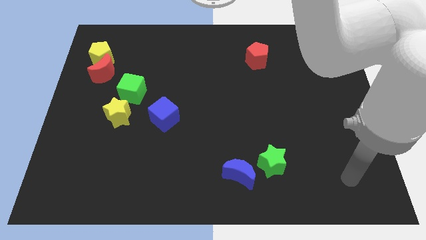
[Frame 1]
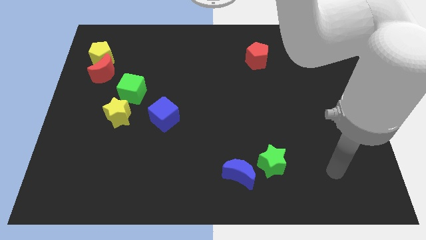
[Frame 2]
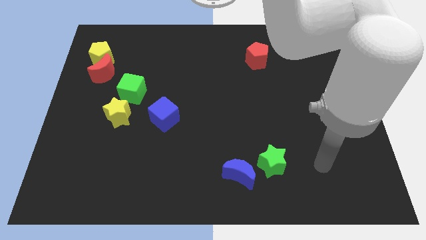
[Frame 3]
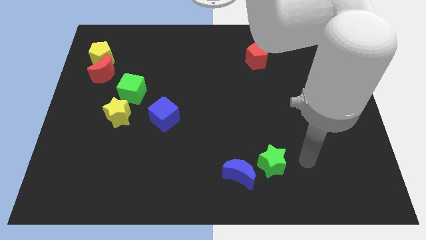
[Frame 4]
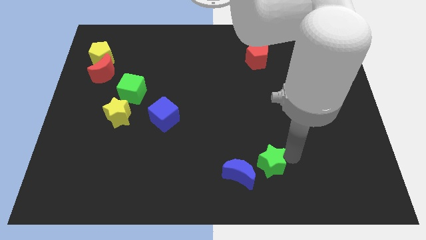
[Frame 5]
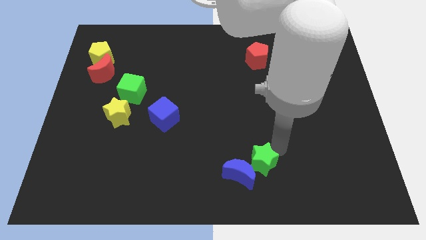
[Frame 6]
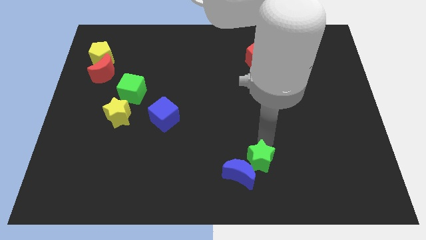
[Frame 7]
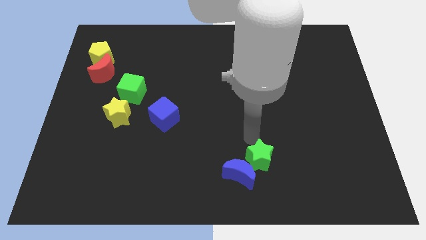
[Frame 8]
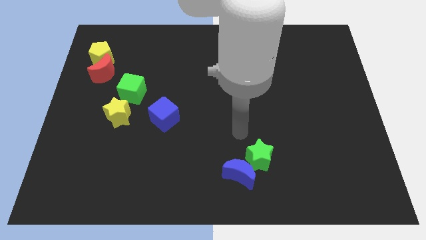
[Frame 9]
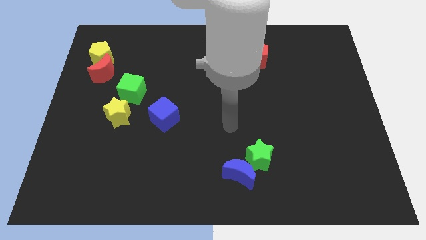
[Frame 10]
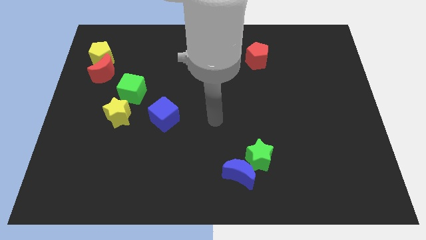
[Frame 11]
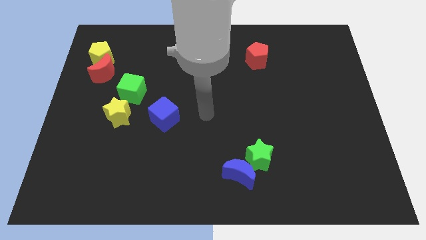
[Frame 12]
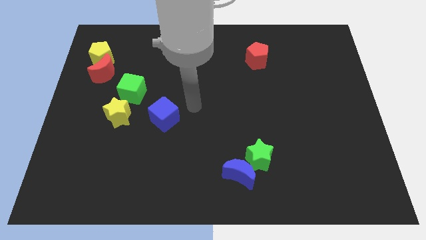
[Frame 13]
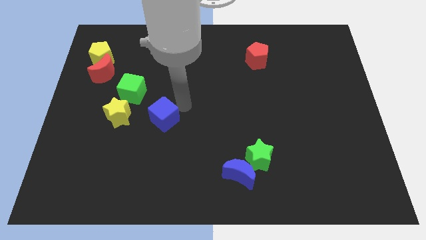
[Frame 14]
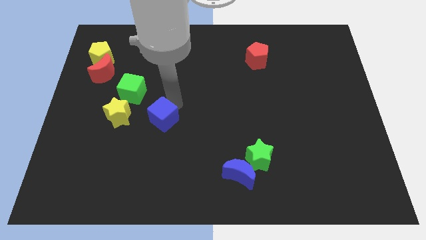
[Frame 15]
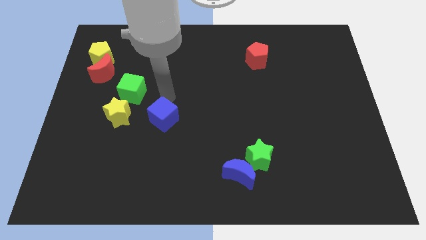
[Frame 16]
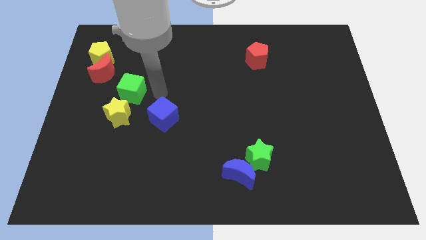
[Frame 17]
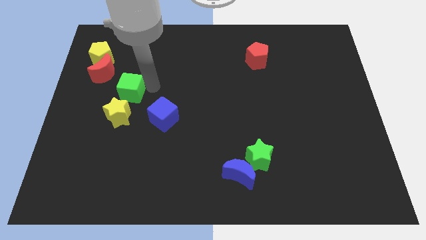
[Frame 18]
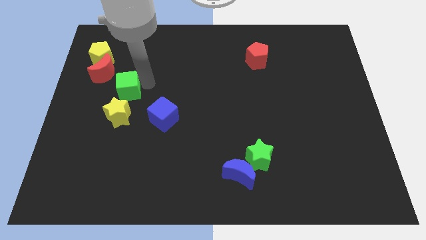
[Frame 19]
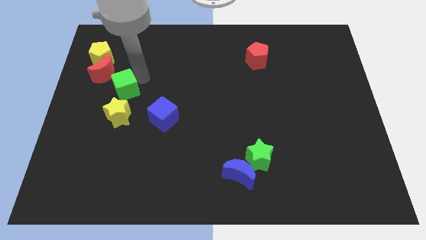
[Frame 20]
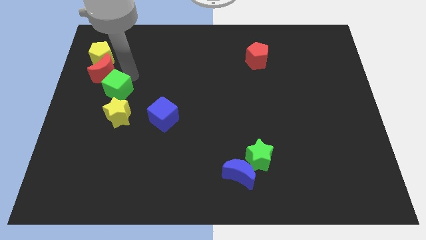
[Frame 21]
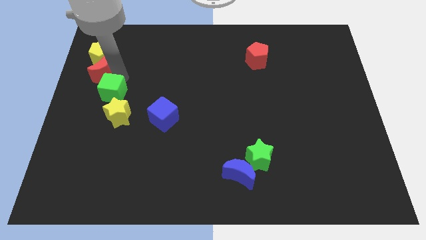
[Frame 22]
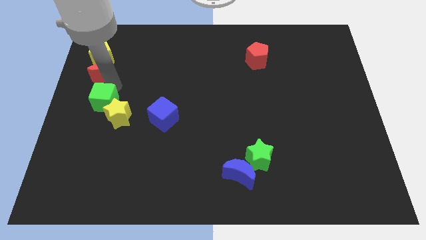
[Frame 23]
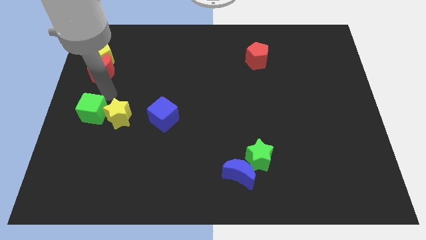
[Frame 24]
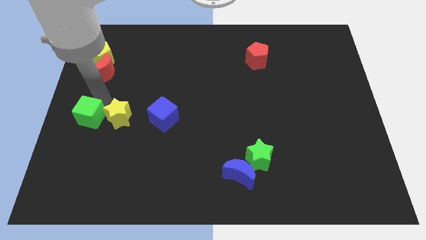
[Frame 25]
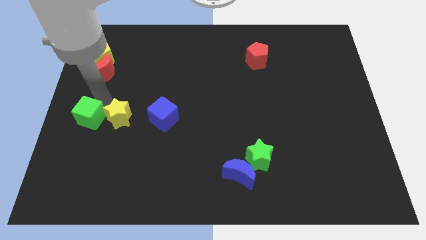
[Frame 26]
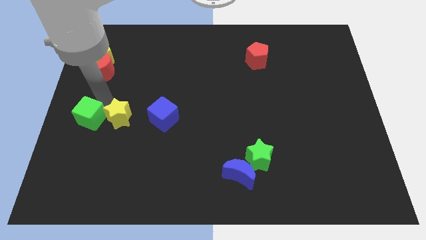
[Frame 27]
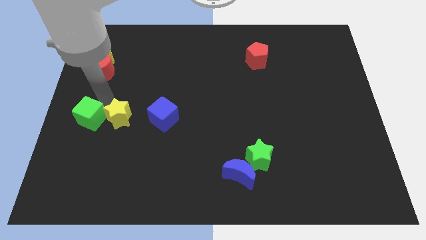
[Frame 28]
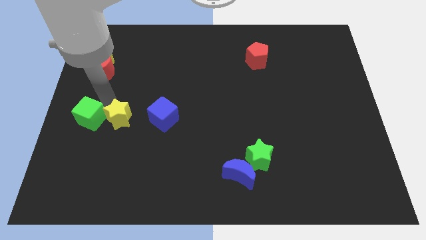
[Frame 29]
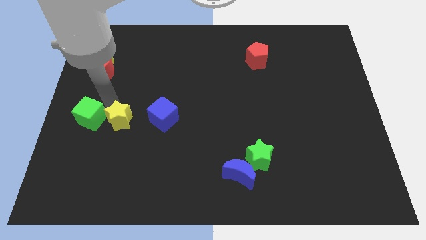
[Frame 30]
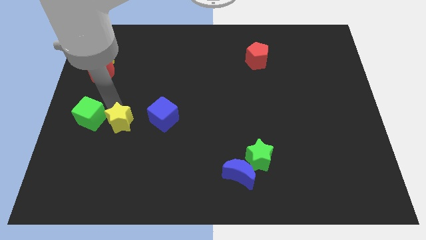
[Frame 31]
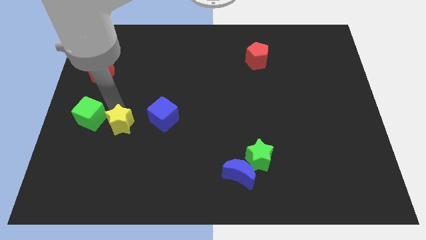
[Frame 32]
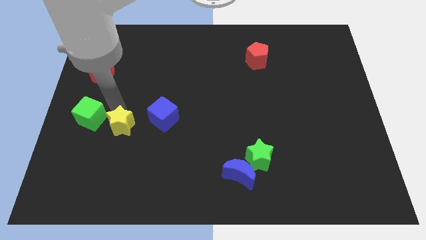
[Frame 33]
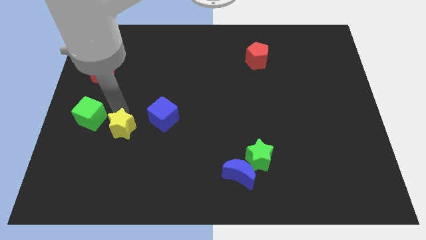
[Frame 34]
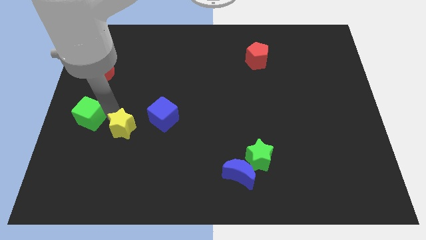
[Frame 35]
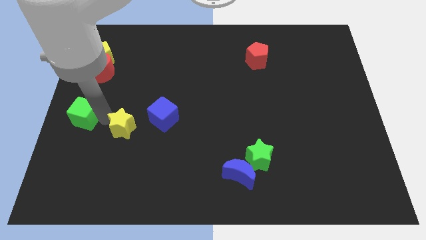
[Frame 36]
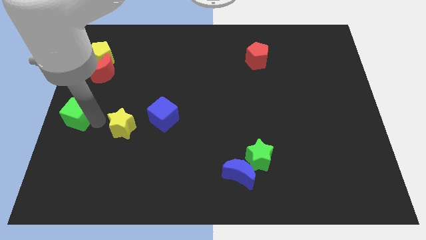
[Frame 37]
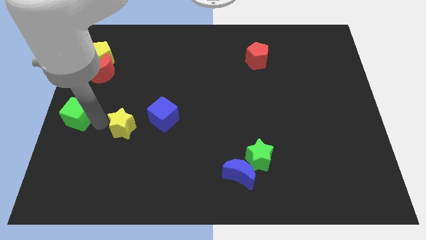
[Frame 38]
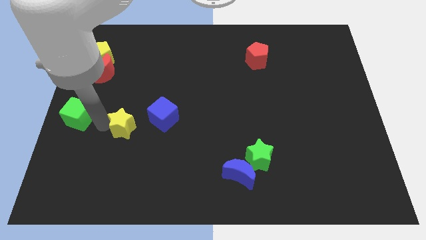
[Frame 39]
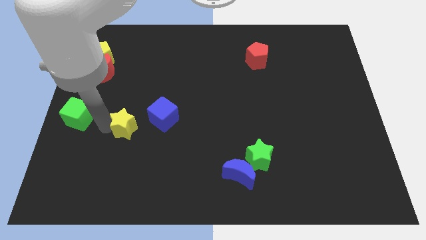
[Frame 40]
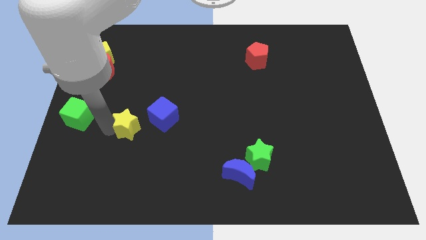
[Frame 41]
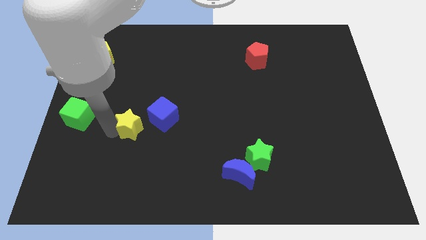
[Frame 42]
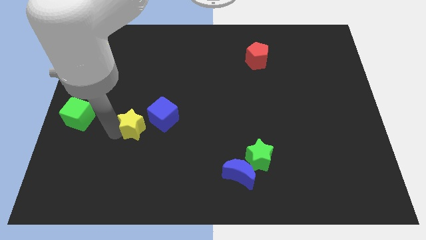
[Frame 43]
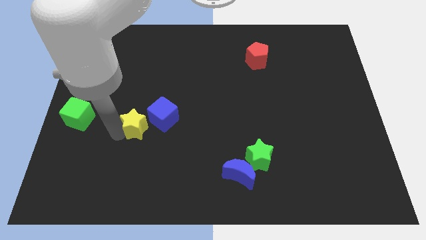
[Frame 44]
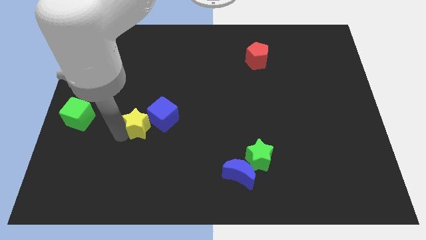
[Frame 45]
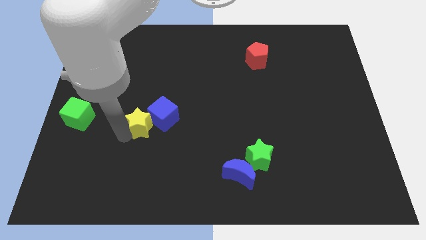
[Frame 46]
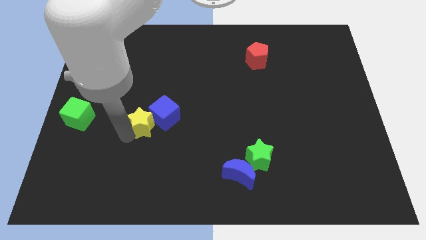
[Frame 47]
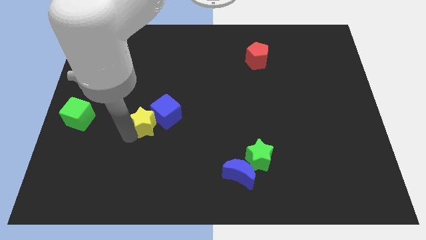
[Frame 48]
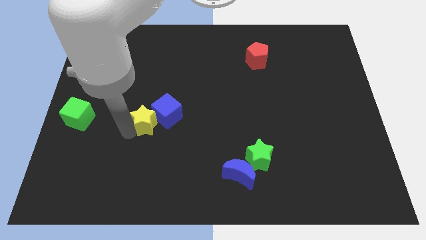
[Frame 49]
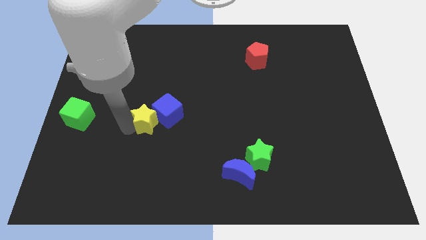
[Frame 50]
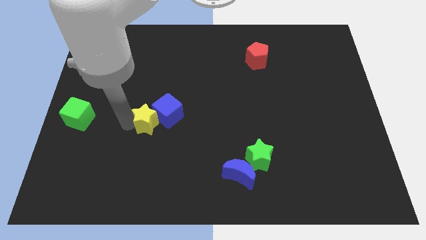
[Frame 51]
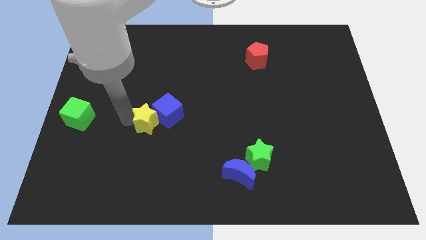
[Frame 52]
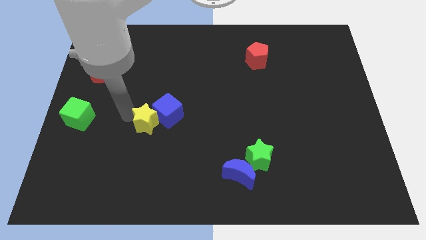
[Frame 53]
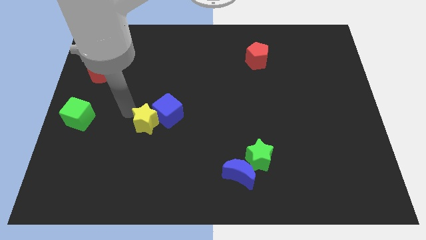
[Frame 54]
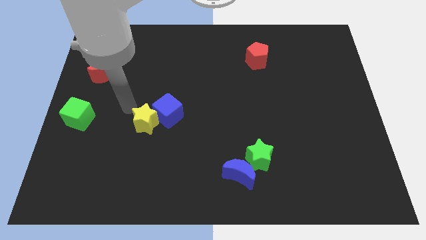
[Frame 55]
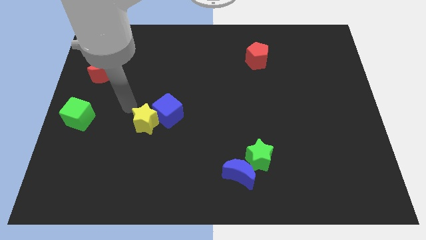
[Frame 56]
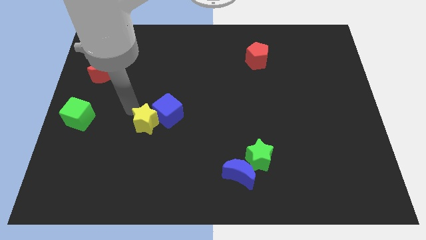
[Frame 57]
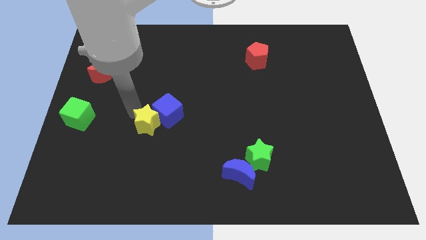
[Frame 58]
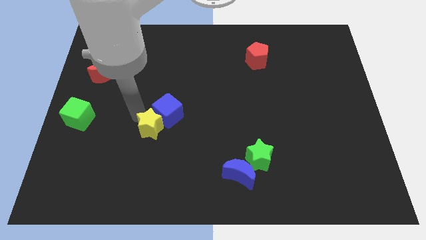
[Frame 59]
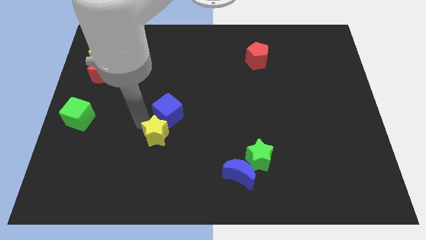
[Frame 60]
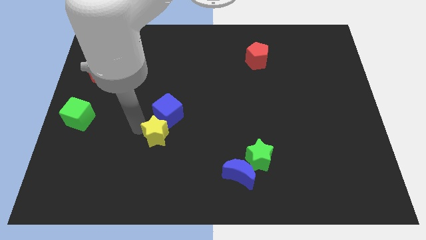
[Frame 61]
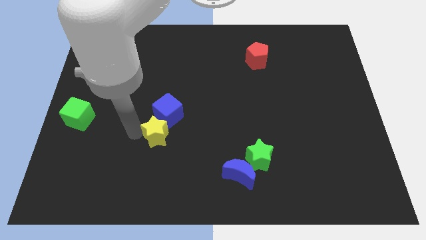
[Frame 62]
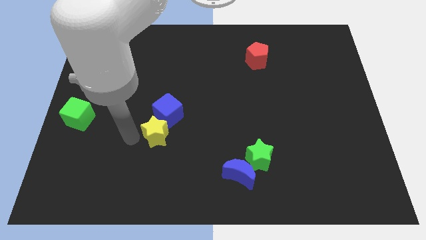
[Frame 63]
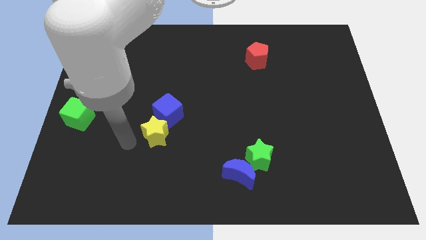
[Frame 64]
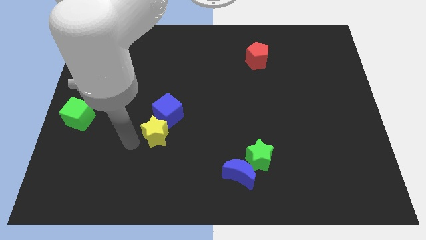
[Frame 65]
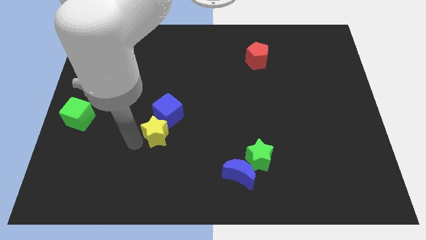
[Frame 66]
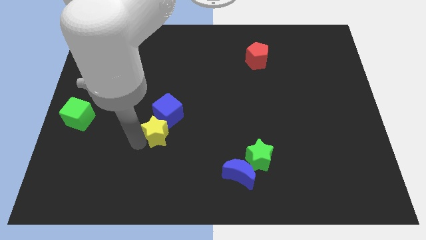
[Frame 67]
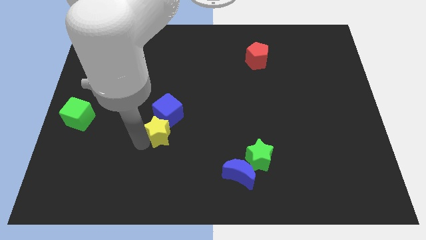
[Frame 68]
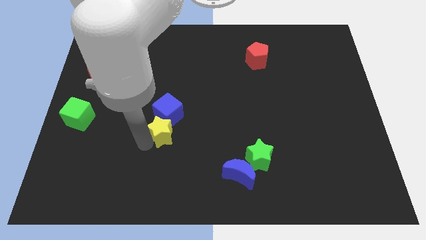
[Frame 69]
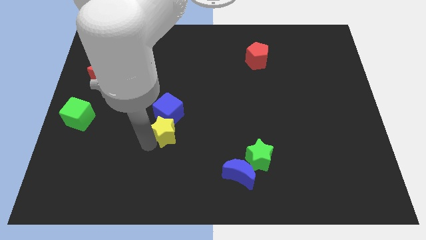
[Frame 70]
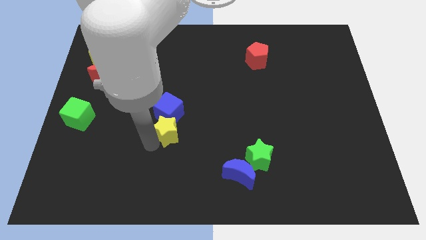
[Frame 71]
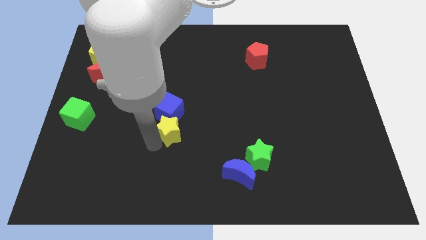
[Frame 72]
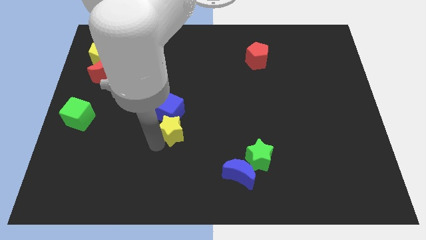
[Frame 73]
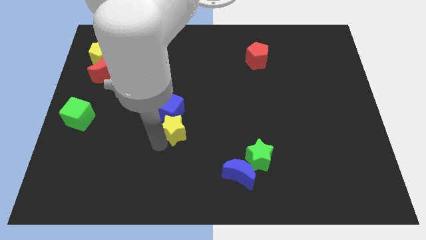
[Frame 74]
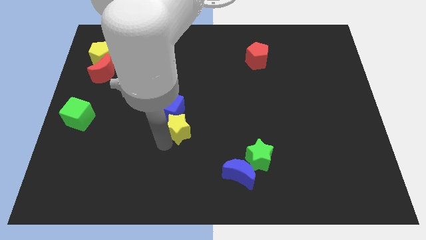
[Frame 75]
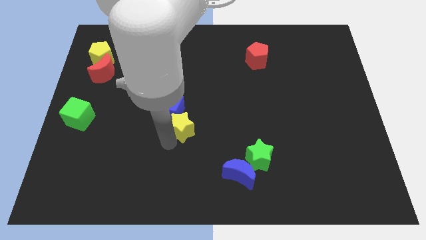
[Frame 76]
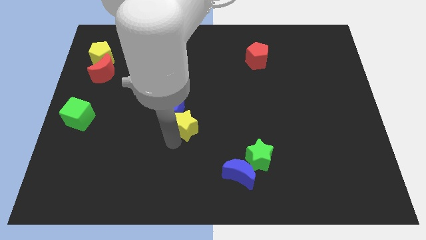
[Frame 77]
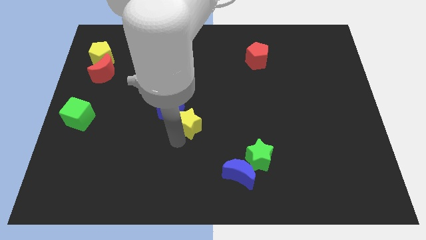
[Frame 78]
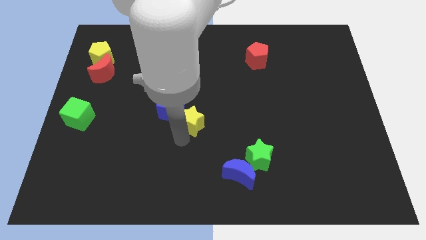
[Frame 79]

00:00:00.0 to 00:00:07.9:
move the yellow star just right of the blue cube

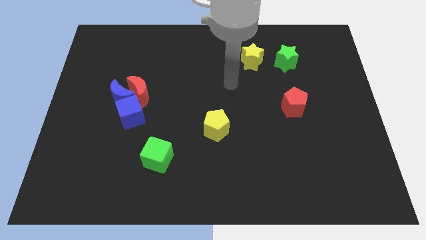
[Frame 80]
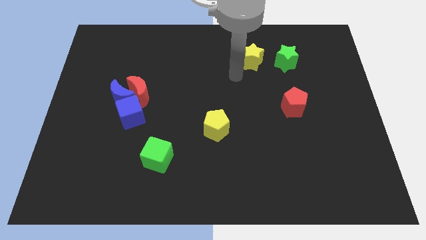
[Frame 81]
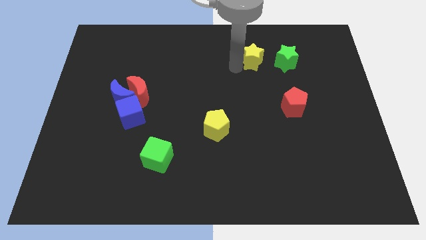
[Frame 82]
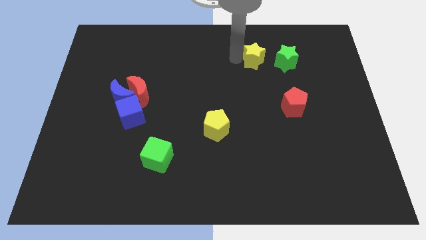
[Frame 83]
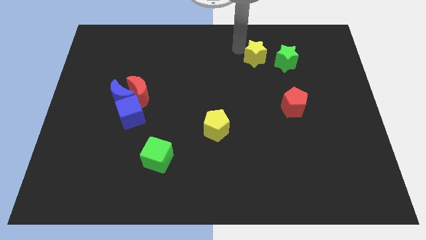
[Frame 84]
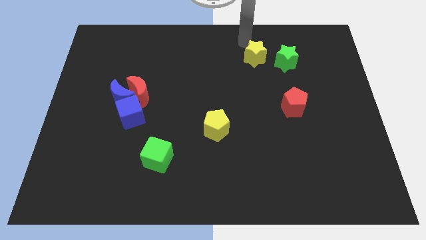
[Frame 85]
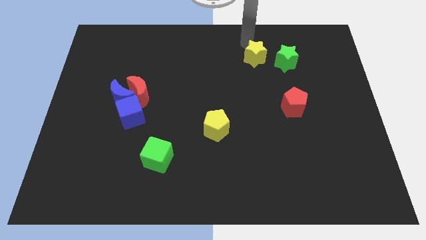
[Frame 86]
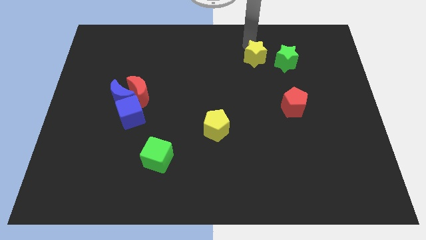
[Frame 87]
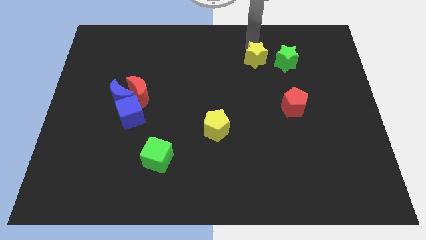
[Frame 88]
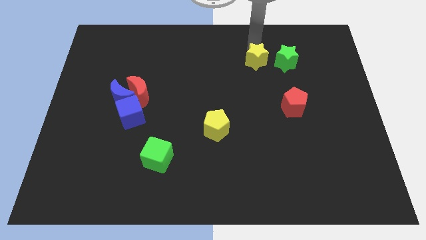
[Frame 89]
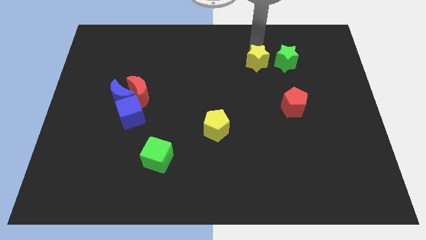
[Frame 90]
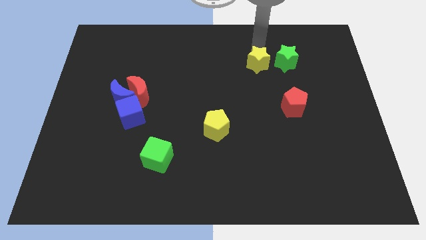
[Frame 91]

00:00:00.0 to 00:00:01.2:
push the yellow star to the bottom left side of the green star
